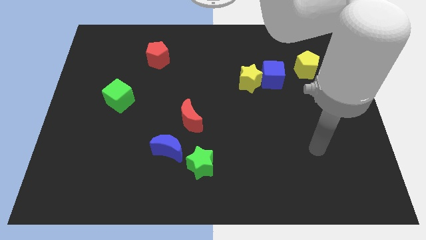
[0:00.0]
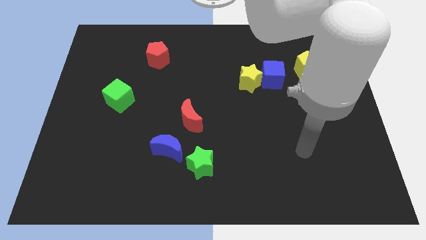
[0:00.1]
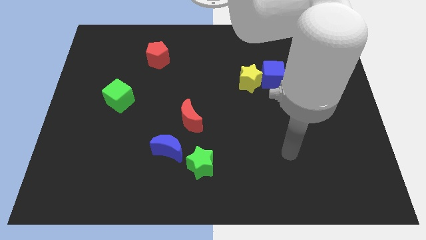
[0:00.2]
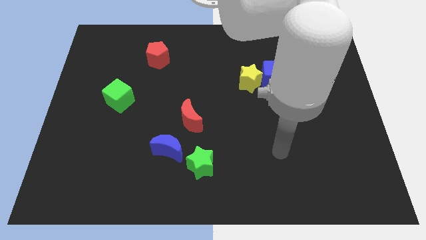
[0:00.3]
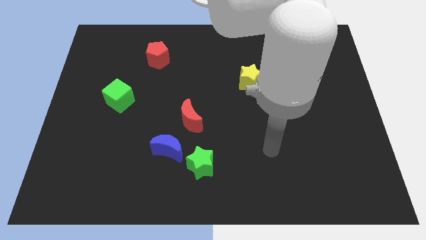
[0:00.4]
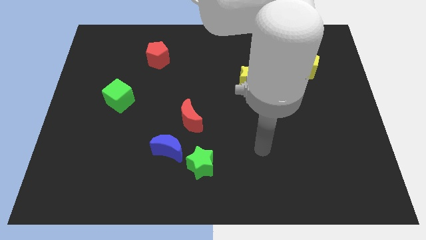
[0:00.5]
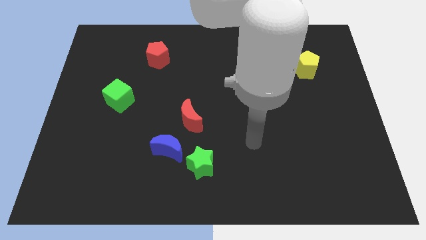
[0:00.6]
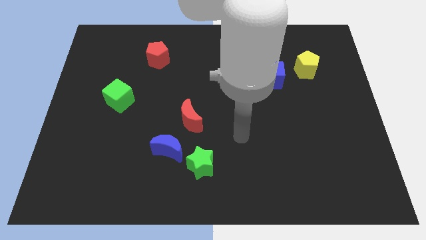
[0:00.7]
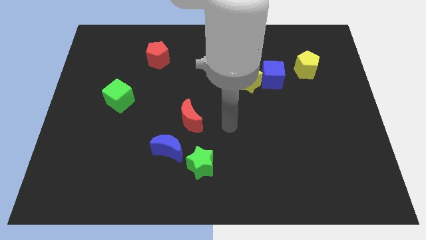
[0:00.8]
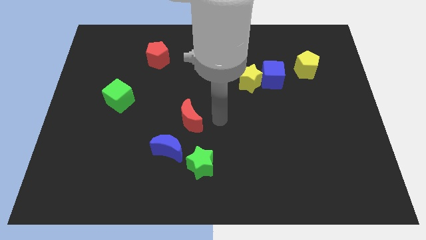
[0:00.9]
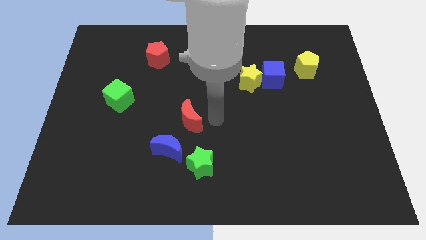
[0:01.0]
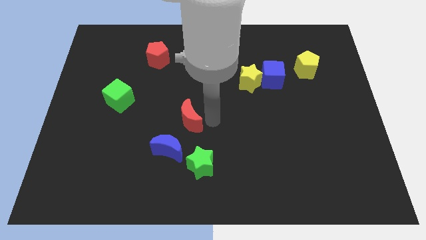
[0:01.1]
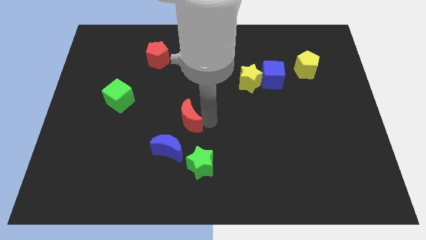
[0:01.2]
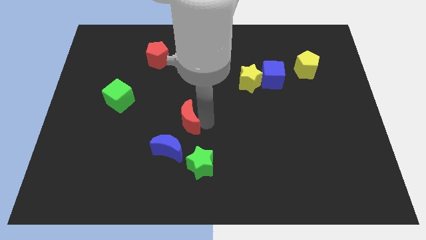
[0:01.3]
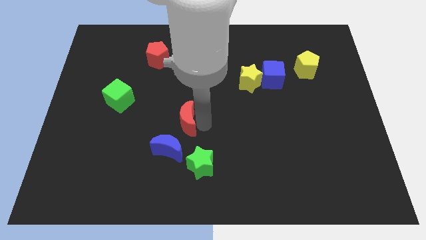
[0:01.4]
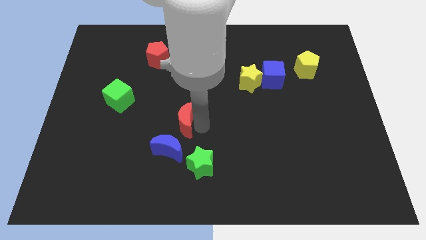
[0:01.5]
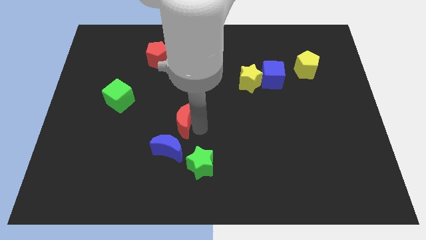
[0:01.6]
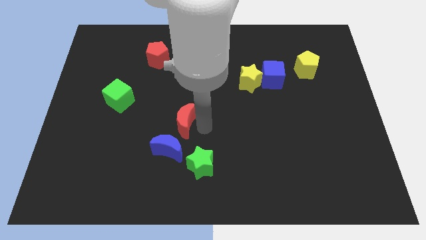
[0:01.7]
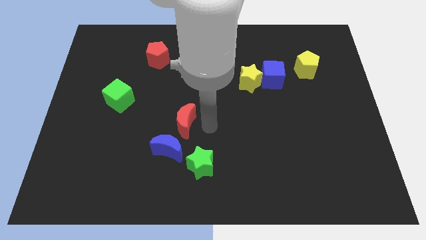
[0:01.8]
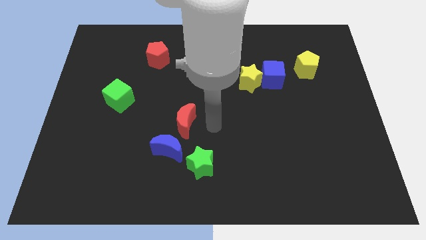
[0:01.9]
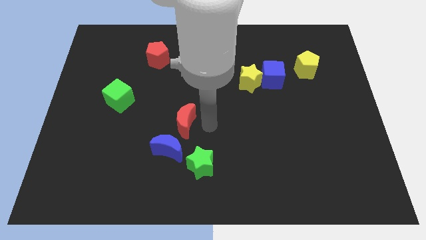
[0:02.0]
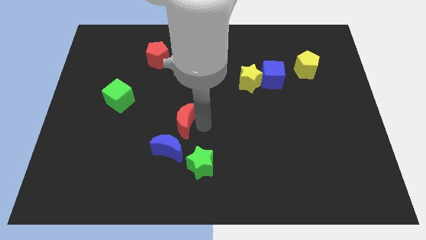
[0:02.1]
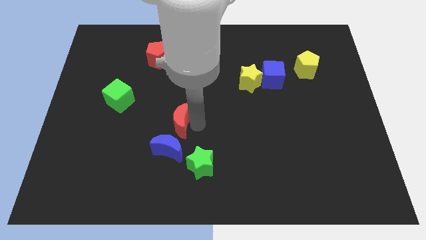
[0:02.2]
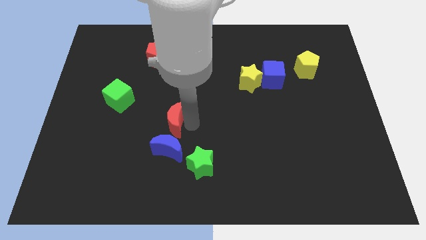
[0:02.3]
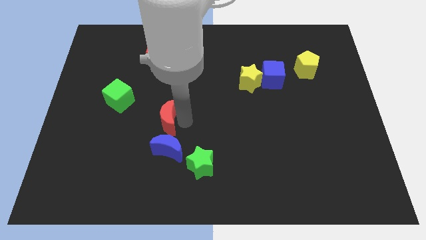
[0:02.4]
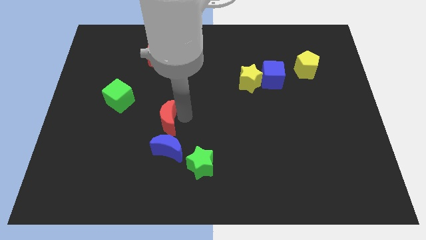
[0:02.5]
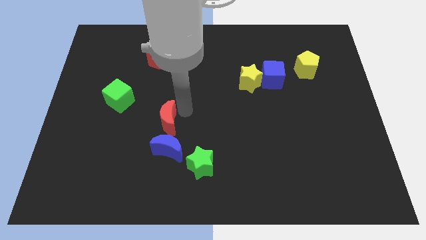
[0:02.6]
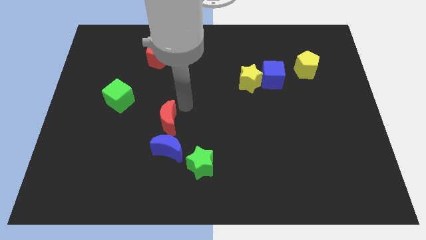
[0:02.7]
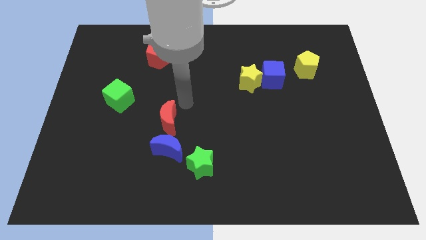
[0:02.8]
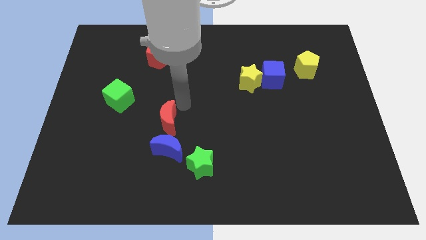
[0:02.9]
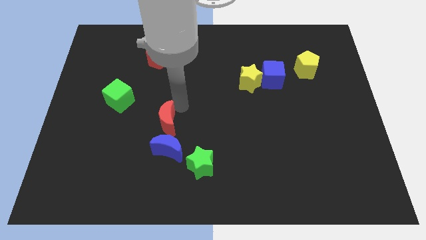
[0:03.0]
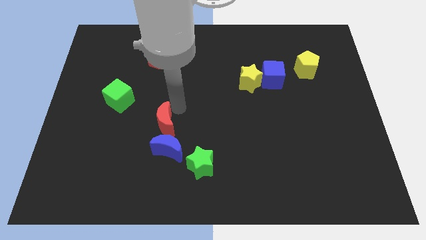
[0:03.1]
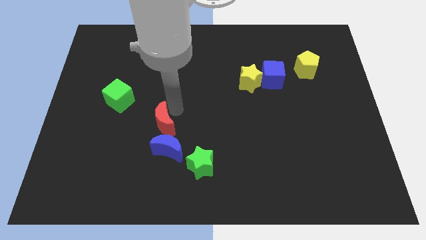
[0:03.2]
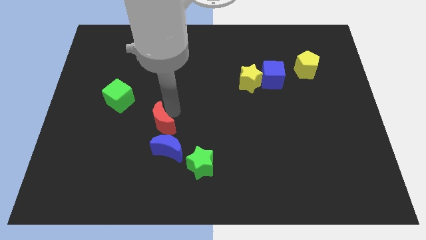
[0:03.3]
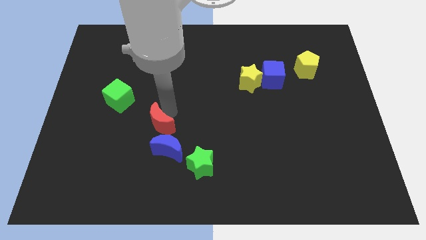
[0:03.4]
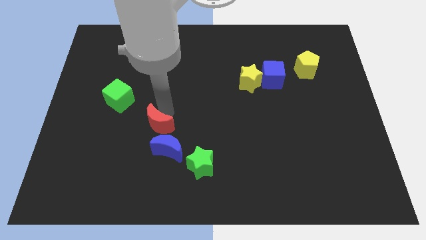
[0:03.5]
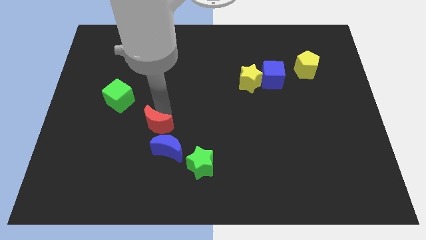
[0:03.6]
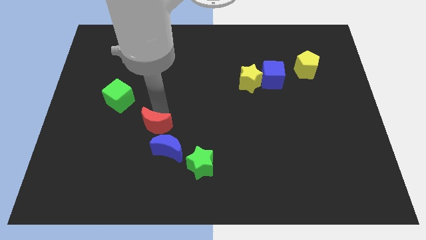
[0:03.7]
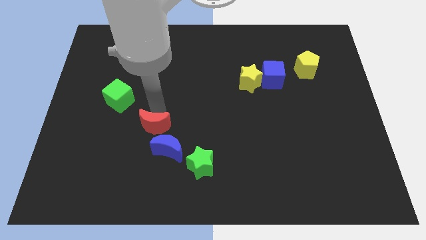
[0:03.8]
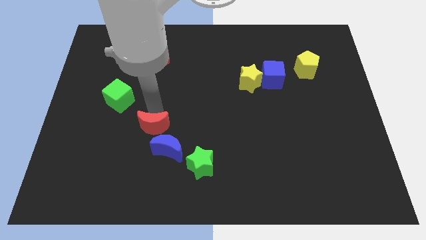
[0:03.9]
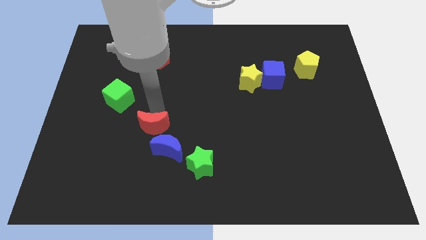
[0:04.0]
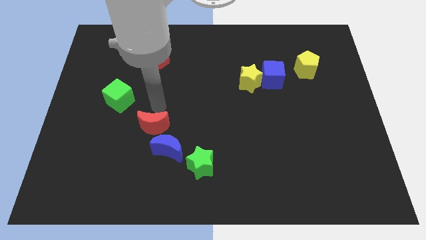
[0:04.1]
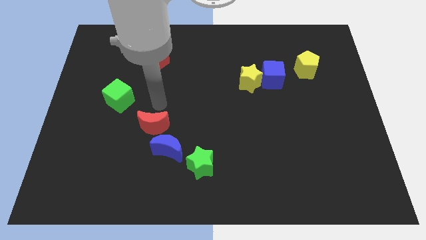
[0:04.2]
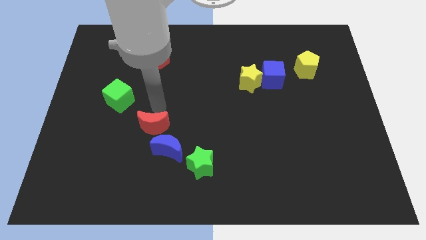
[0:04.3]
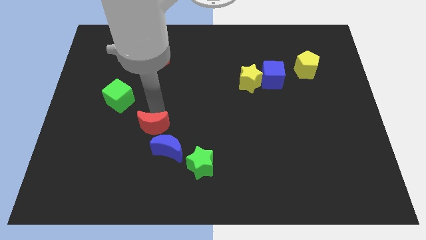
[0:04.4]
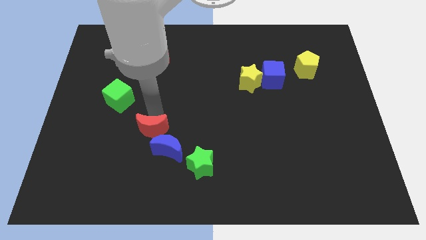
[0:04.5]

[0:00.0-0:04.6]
move the red moon downwards and left diagonally slightly

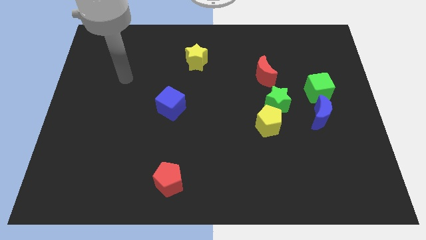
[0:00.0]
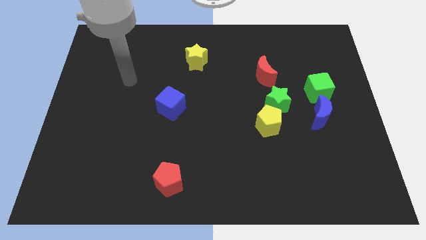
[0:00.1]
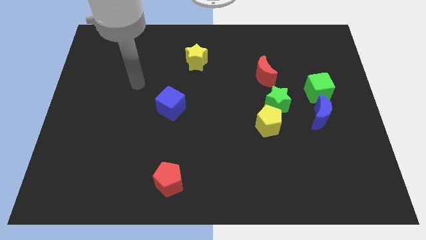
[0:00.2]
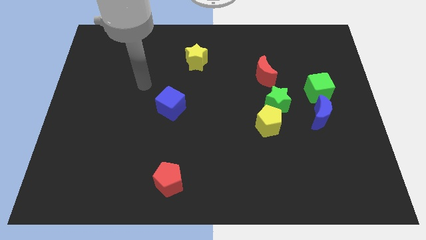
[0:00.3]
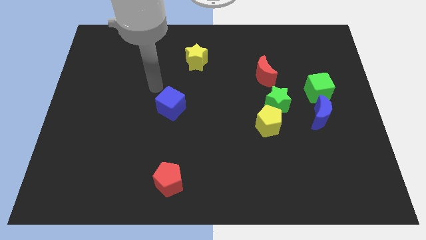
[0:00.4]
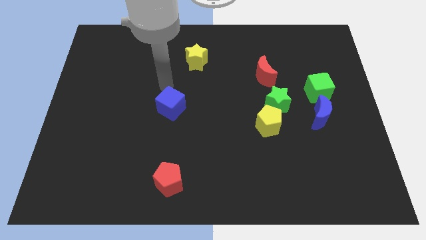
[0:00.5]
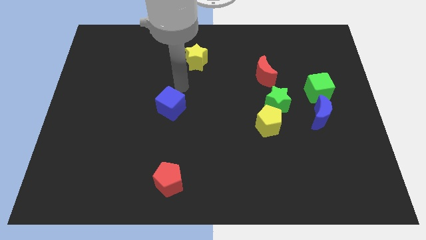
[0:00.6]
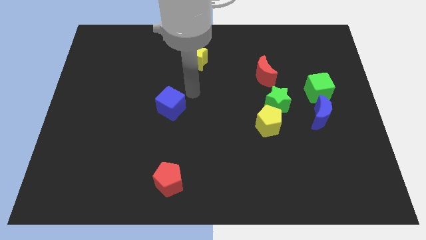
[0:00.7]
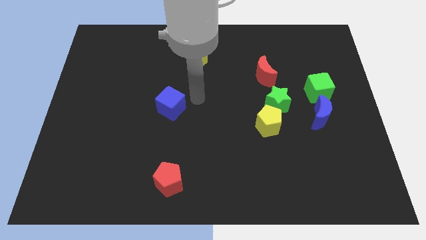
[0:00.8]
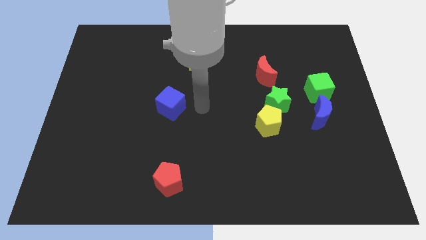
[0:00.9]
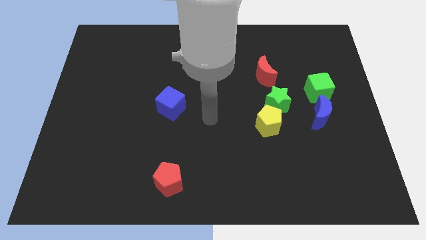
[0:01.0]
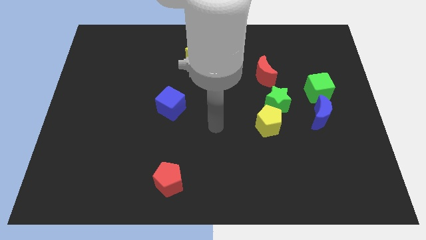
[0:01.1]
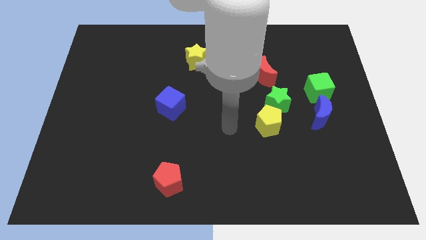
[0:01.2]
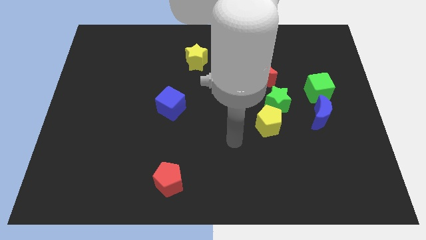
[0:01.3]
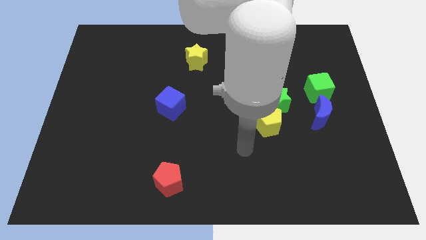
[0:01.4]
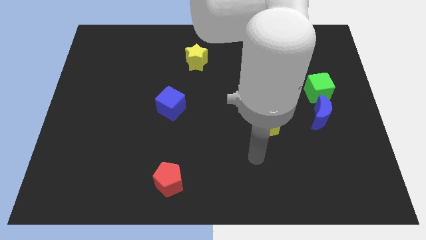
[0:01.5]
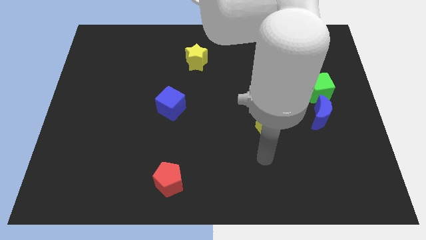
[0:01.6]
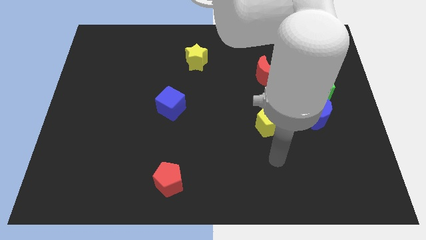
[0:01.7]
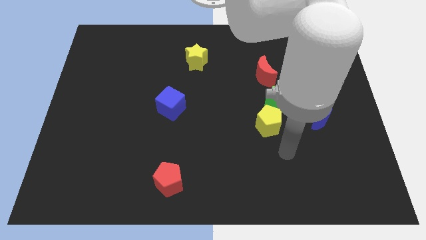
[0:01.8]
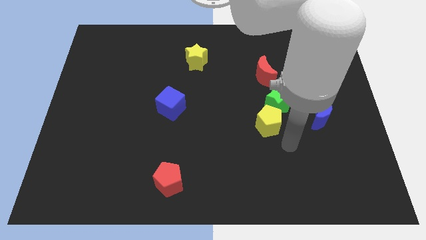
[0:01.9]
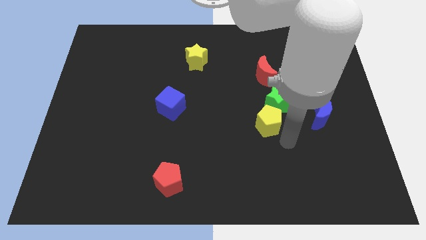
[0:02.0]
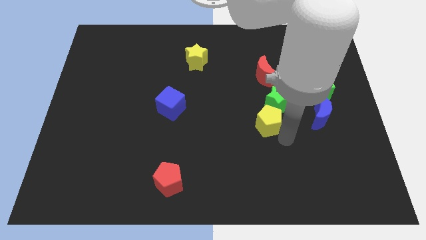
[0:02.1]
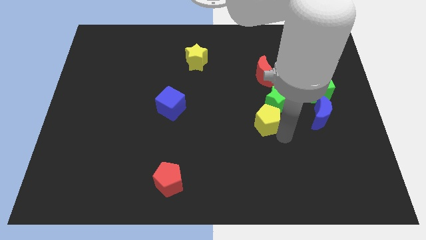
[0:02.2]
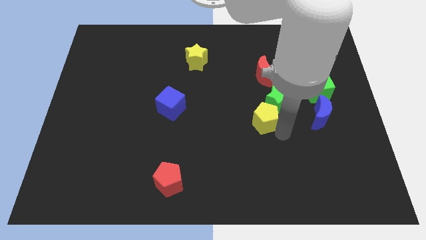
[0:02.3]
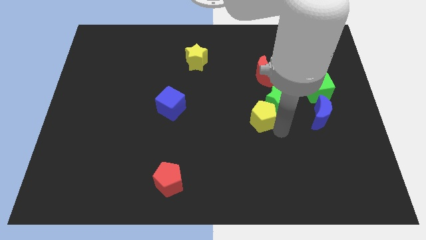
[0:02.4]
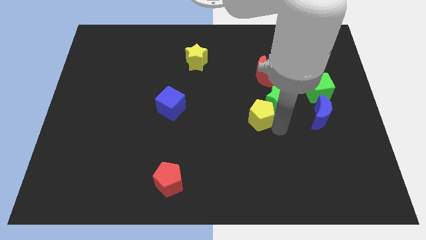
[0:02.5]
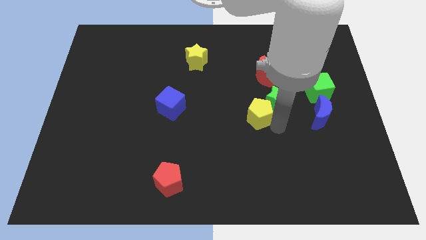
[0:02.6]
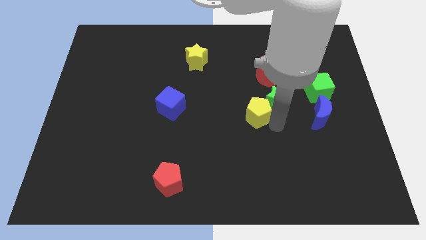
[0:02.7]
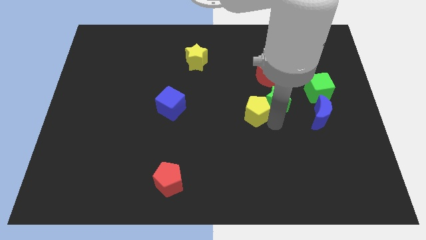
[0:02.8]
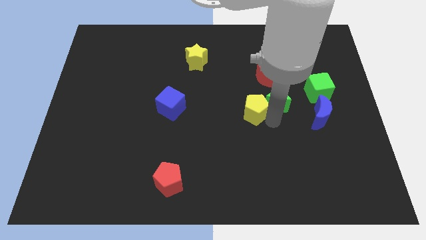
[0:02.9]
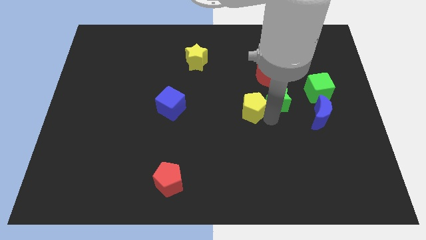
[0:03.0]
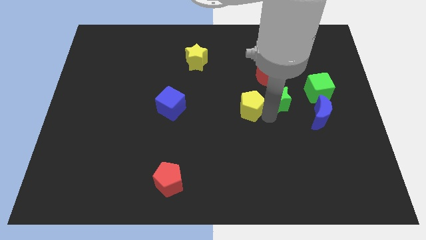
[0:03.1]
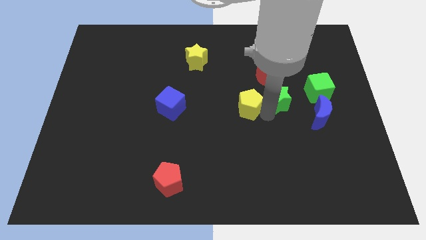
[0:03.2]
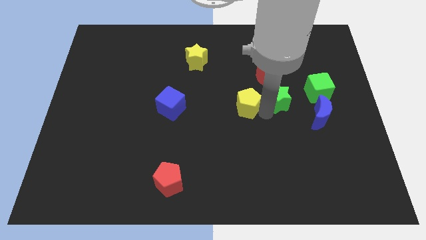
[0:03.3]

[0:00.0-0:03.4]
slightly slide the yellow pentagon up and then left
